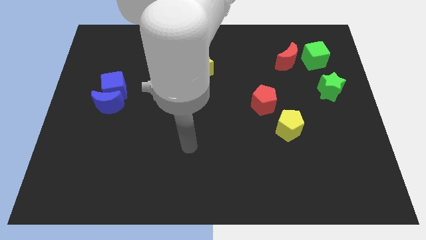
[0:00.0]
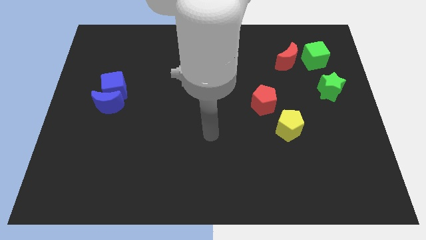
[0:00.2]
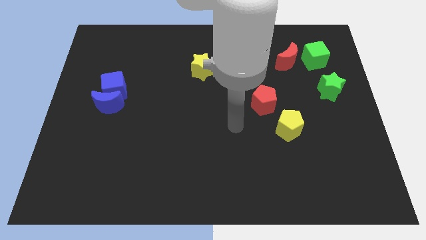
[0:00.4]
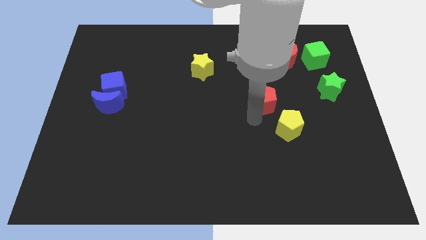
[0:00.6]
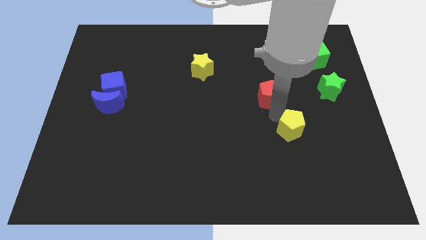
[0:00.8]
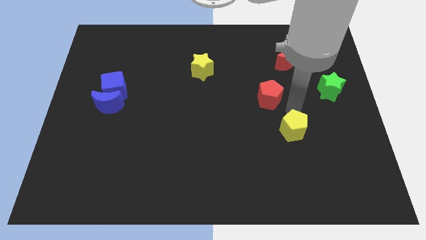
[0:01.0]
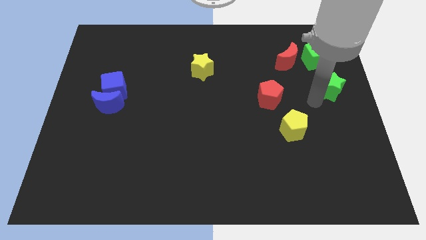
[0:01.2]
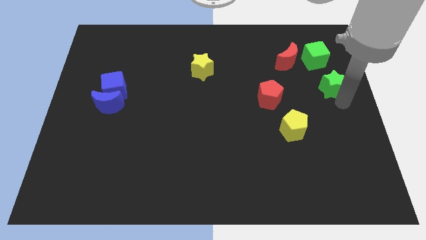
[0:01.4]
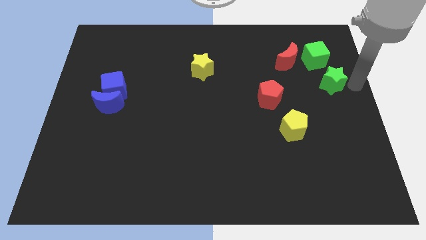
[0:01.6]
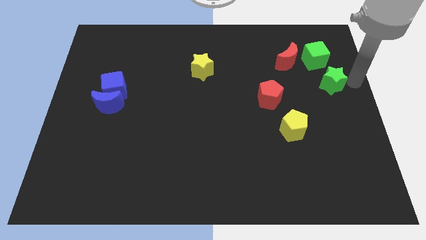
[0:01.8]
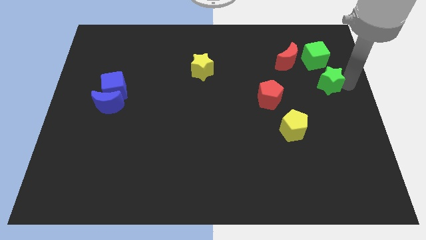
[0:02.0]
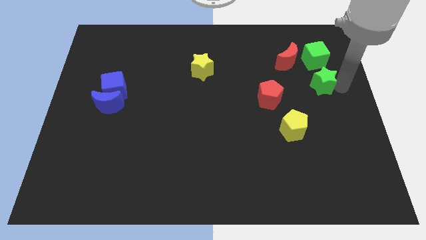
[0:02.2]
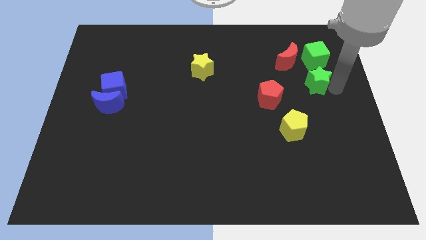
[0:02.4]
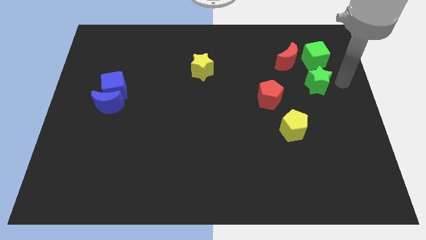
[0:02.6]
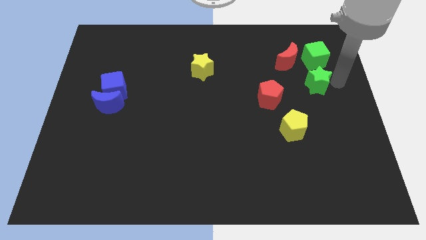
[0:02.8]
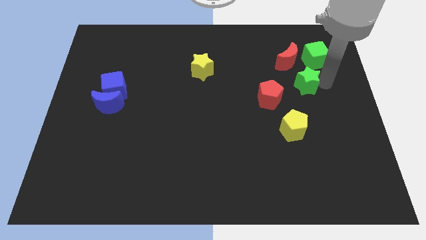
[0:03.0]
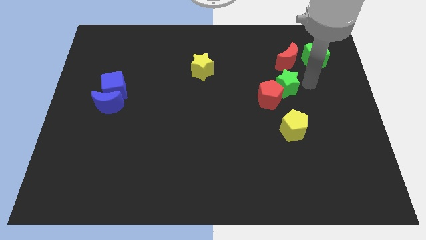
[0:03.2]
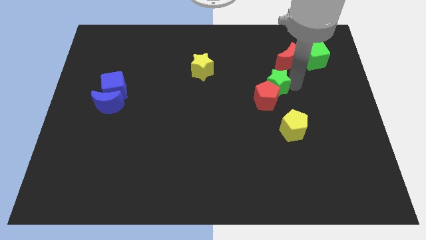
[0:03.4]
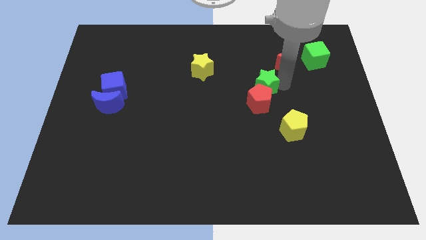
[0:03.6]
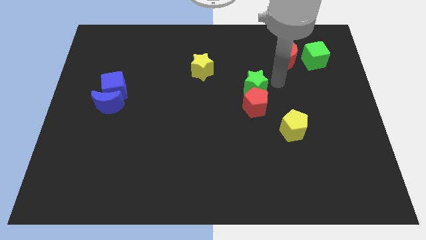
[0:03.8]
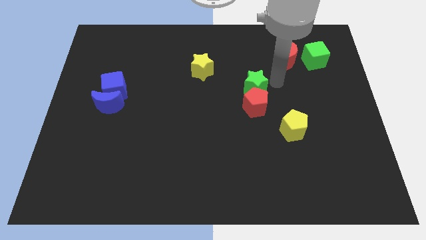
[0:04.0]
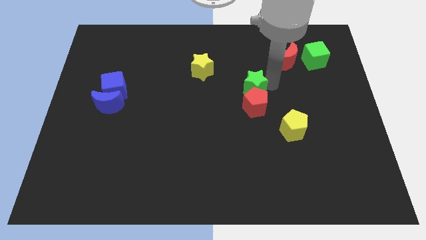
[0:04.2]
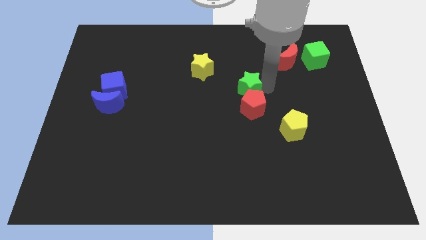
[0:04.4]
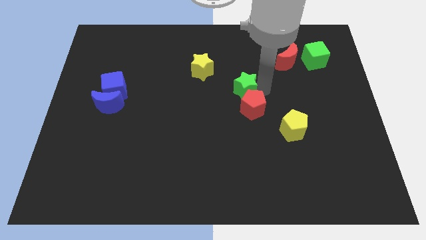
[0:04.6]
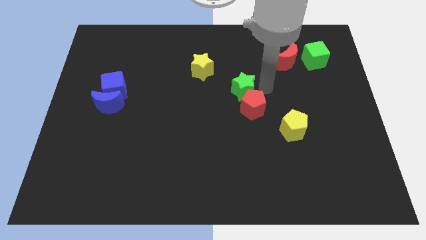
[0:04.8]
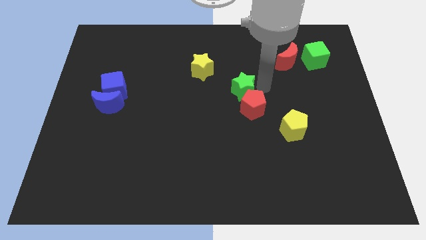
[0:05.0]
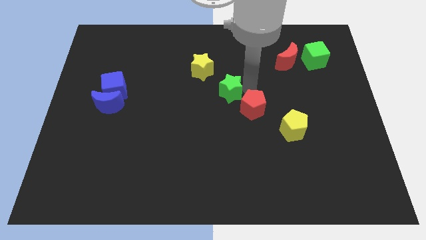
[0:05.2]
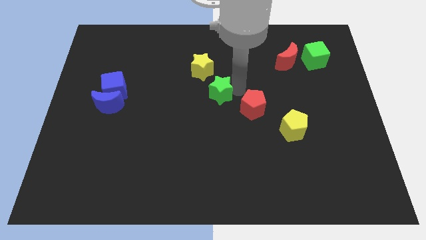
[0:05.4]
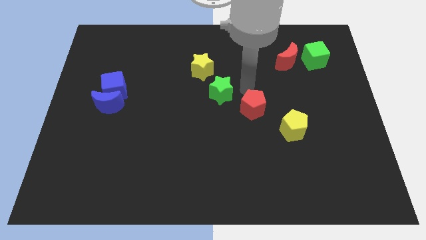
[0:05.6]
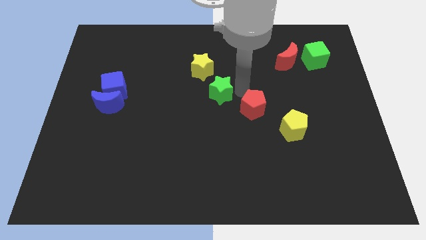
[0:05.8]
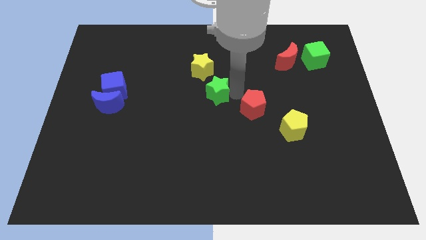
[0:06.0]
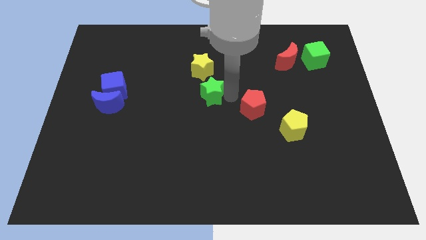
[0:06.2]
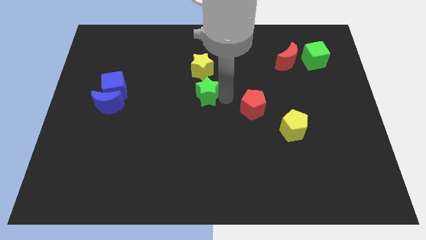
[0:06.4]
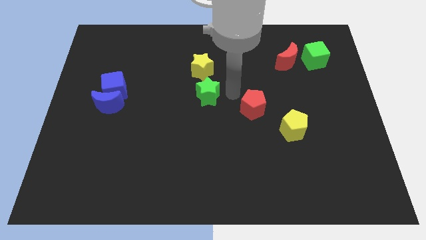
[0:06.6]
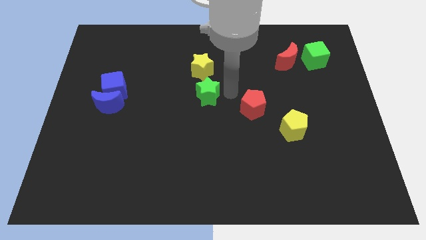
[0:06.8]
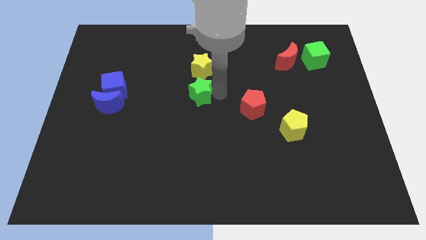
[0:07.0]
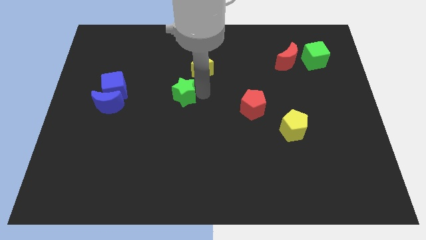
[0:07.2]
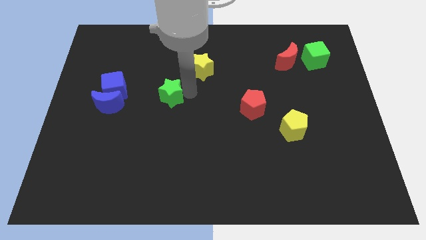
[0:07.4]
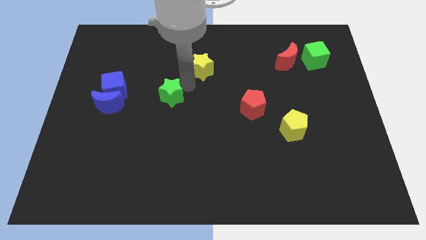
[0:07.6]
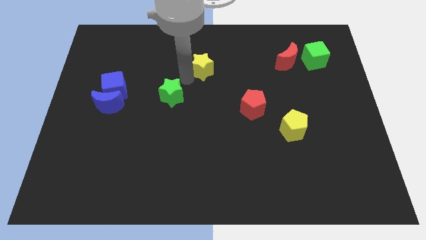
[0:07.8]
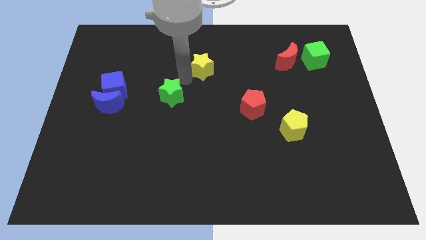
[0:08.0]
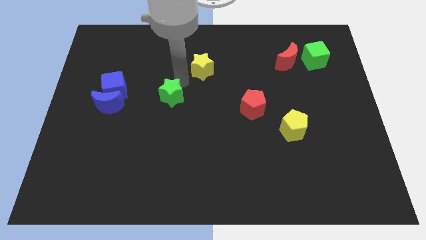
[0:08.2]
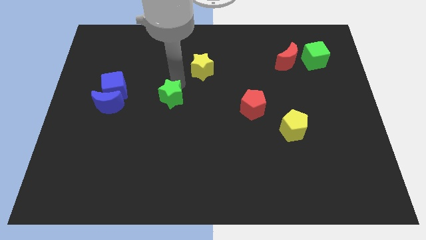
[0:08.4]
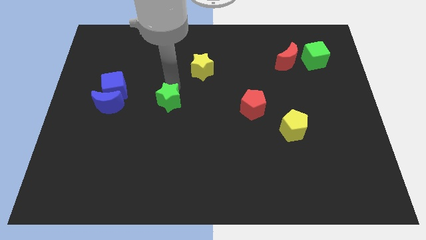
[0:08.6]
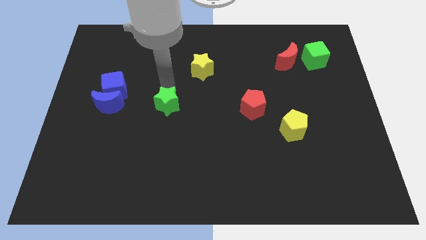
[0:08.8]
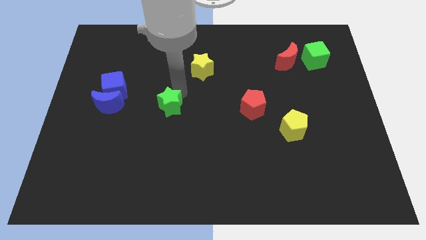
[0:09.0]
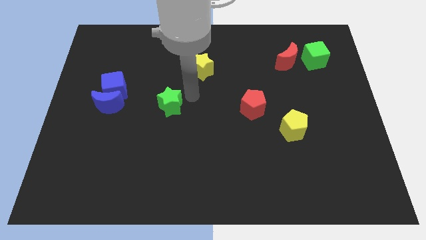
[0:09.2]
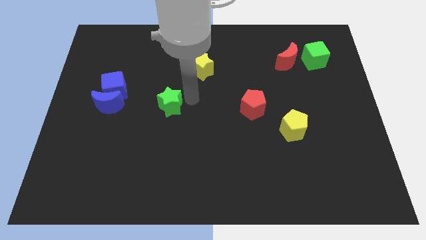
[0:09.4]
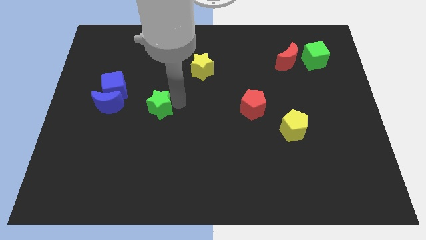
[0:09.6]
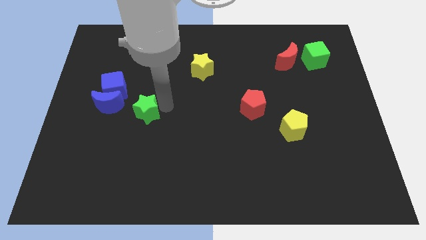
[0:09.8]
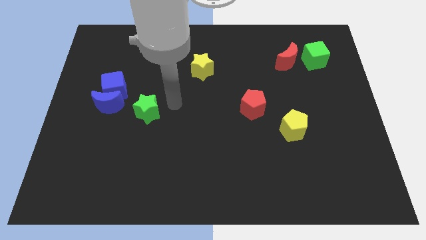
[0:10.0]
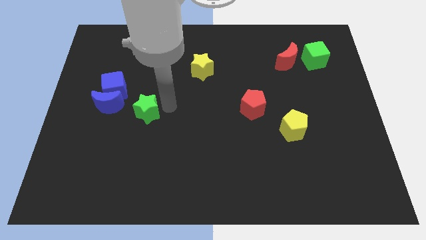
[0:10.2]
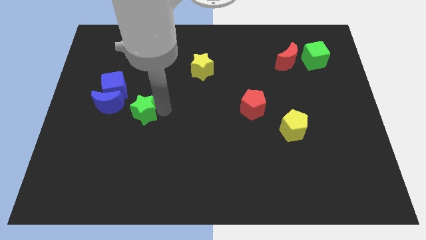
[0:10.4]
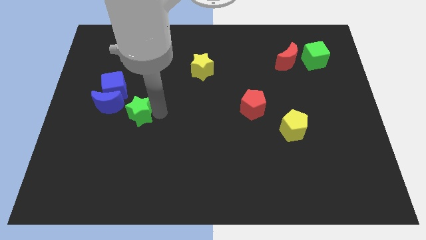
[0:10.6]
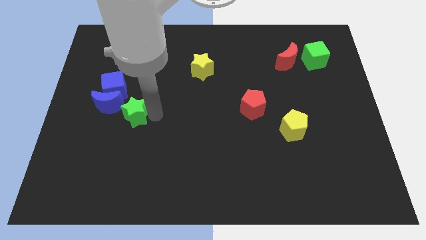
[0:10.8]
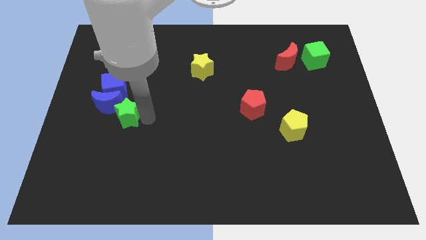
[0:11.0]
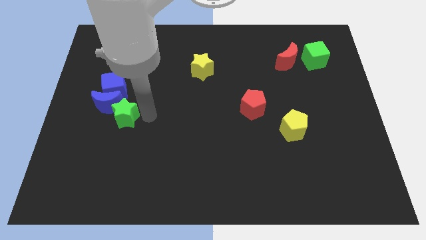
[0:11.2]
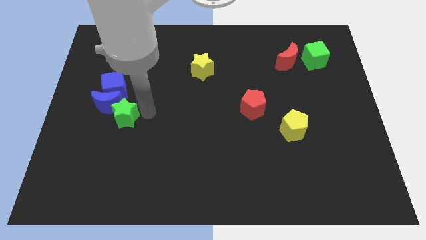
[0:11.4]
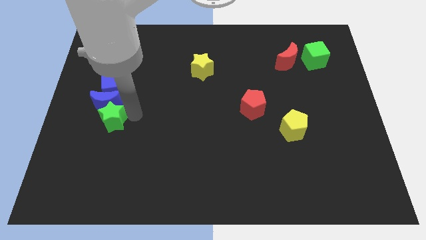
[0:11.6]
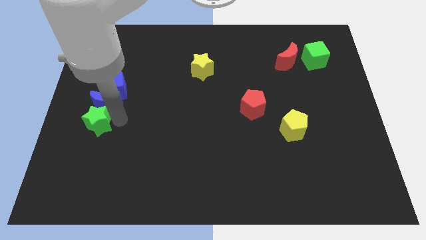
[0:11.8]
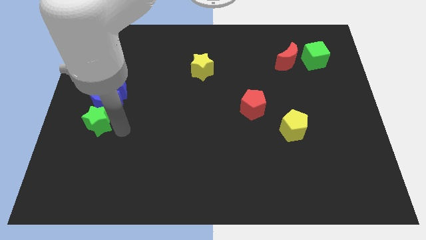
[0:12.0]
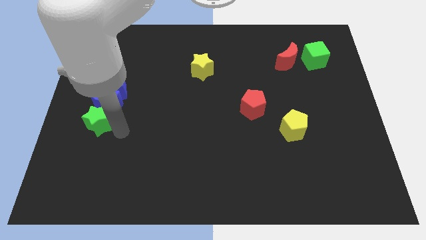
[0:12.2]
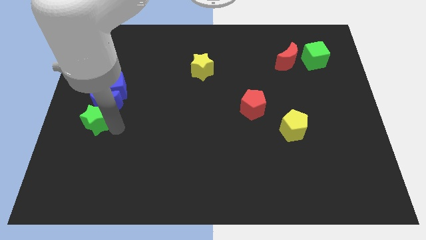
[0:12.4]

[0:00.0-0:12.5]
push the green star to the left side of the board
